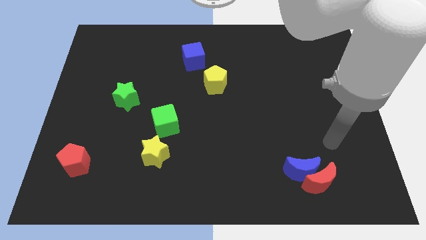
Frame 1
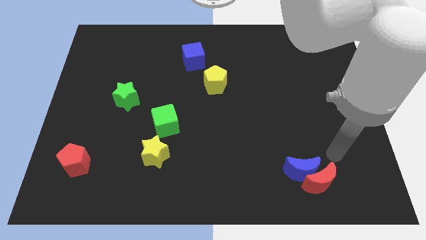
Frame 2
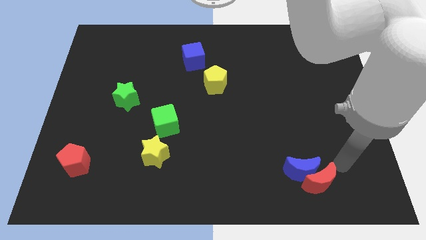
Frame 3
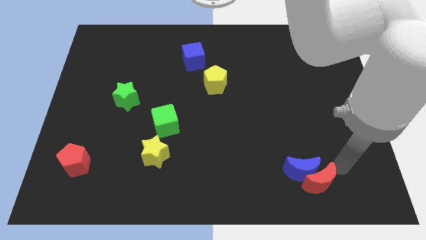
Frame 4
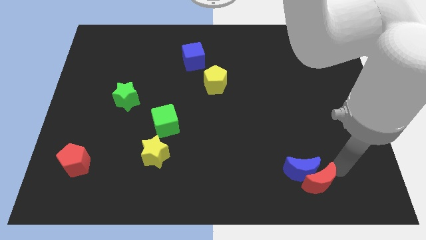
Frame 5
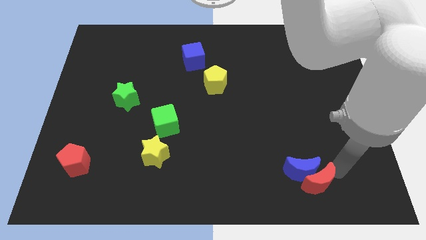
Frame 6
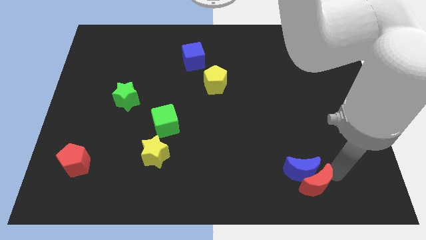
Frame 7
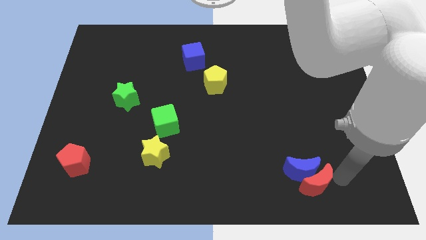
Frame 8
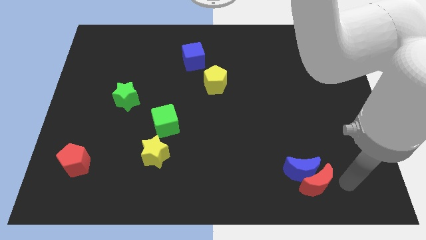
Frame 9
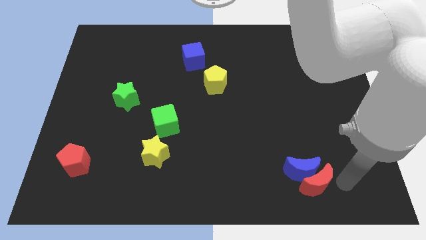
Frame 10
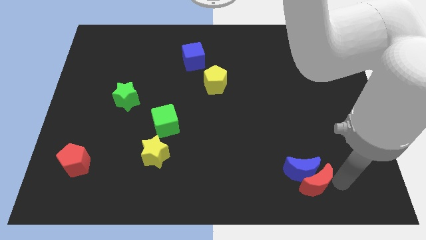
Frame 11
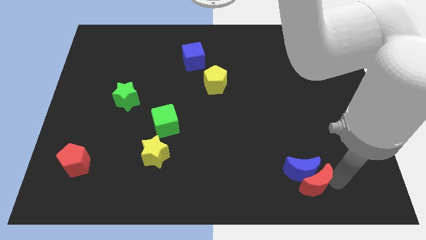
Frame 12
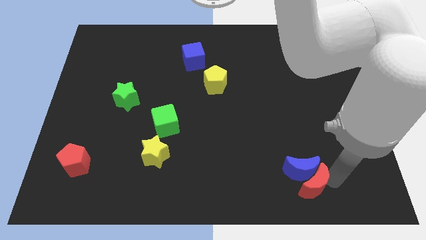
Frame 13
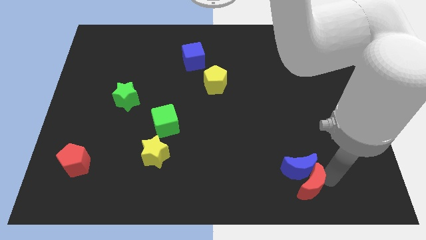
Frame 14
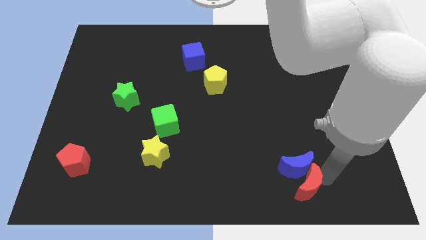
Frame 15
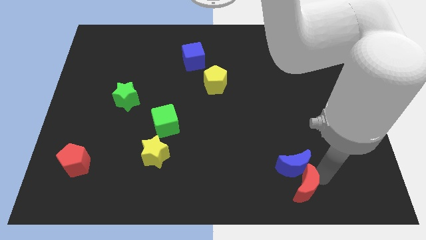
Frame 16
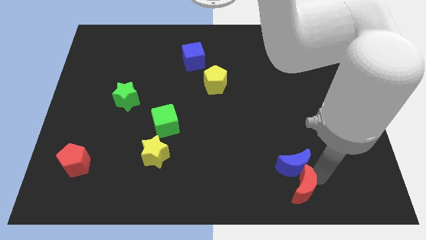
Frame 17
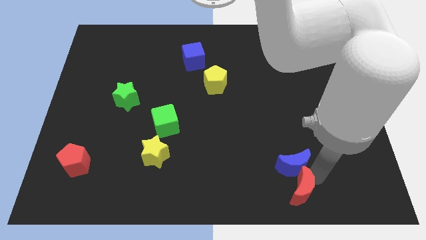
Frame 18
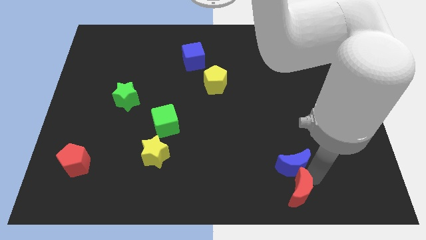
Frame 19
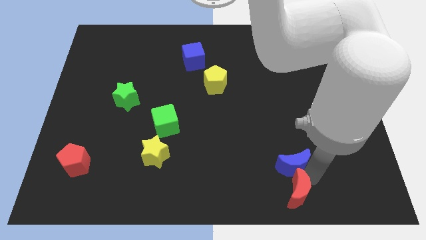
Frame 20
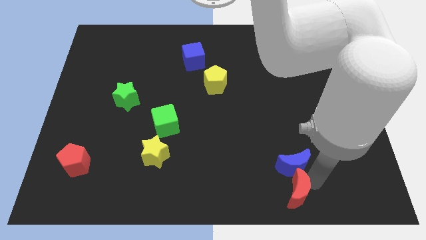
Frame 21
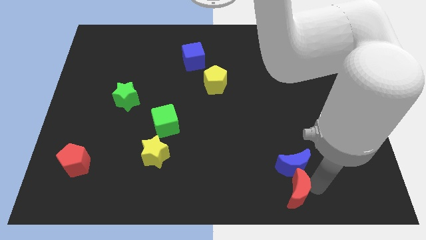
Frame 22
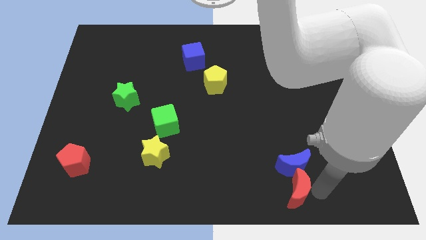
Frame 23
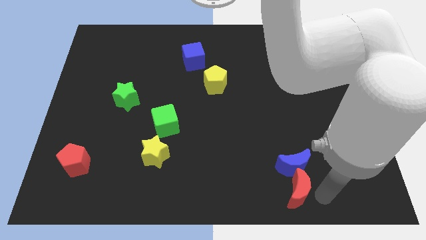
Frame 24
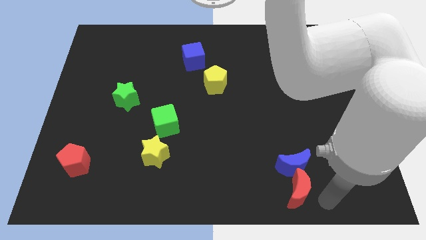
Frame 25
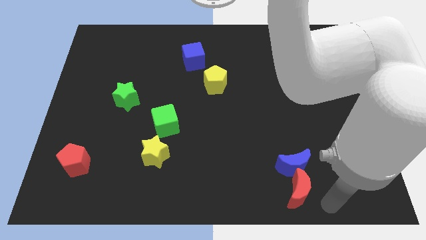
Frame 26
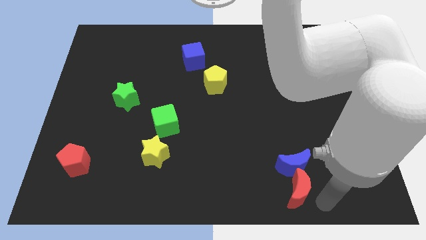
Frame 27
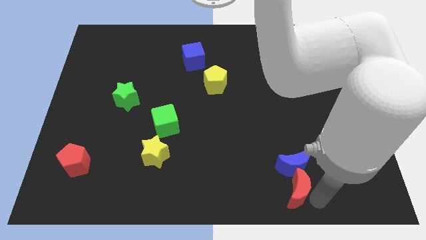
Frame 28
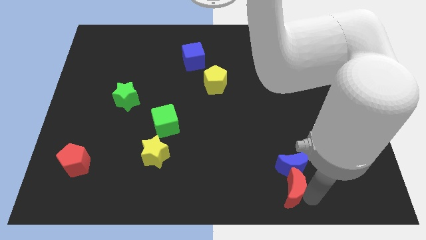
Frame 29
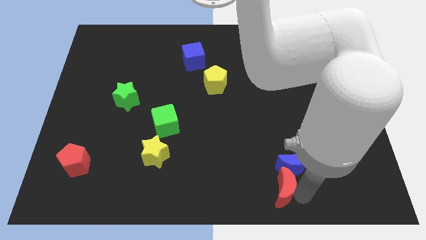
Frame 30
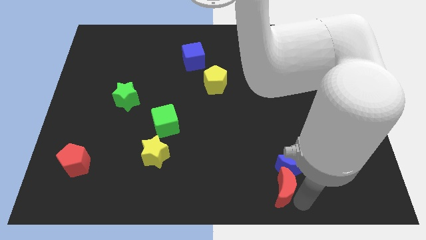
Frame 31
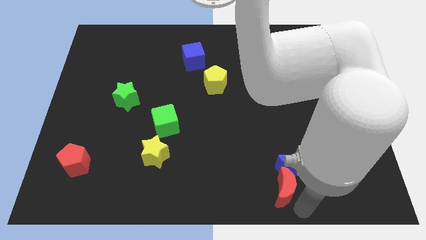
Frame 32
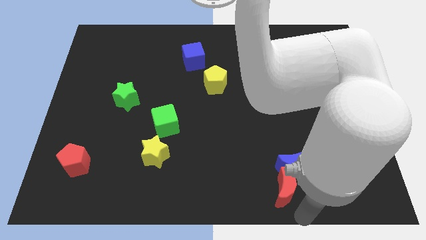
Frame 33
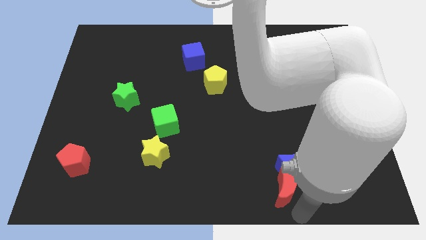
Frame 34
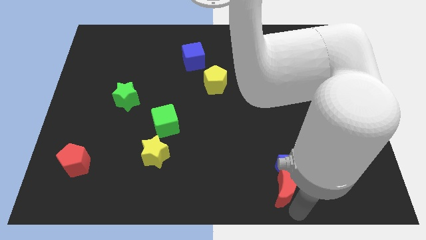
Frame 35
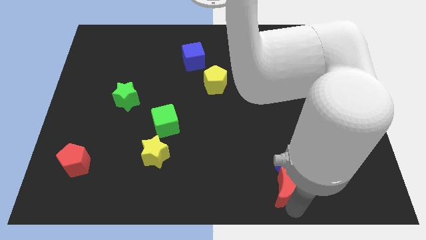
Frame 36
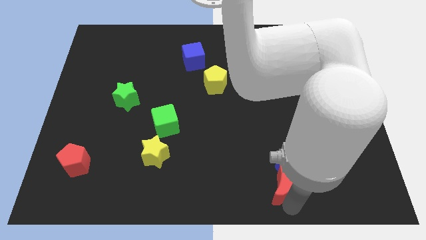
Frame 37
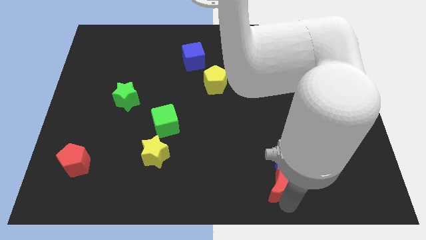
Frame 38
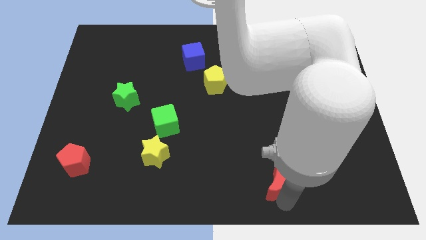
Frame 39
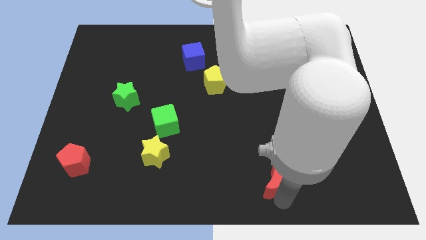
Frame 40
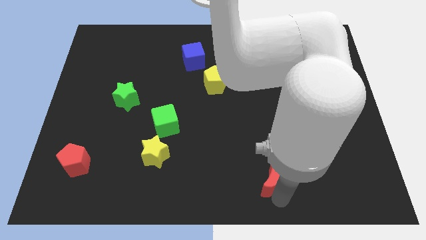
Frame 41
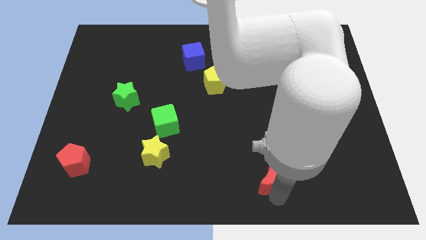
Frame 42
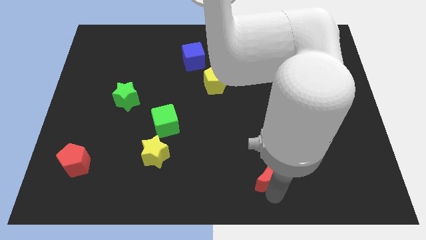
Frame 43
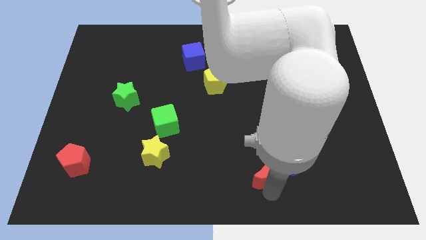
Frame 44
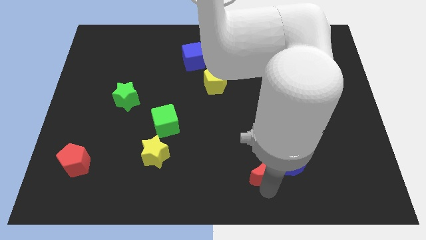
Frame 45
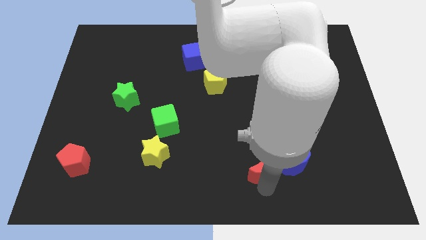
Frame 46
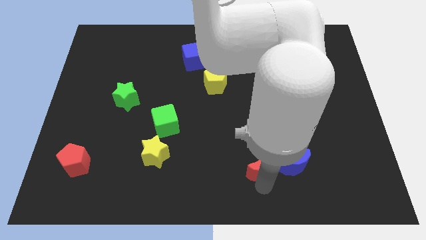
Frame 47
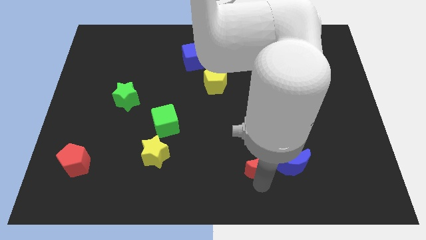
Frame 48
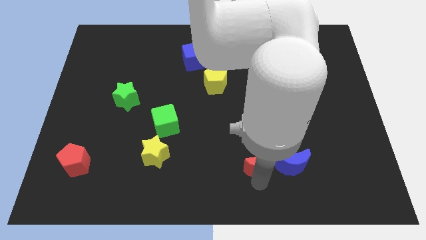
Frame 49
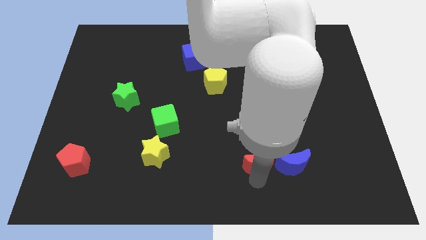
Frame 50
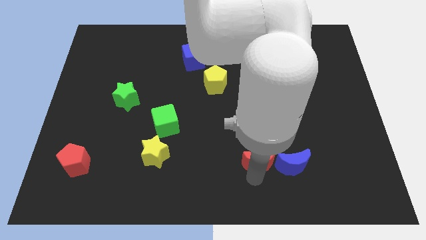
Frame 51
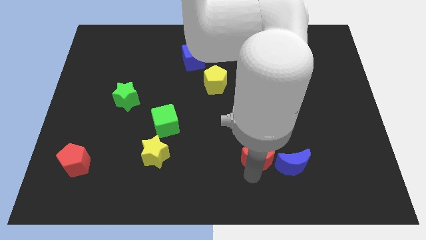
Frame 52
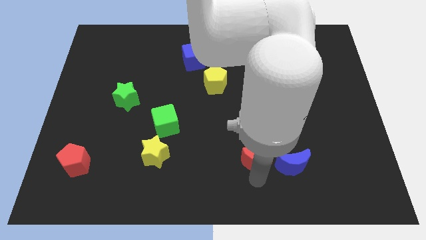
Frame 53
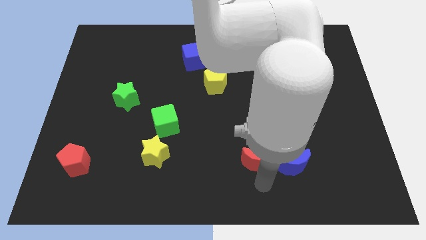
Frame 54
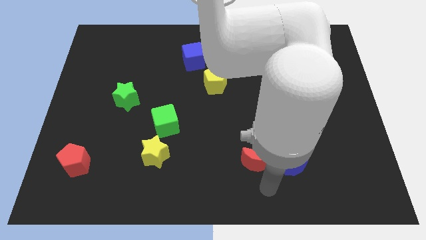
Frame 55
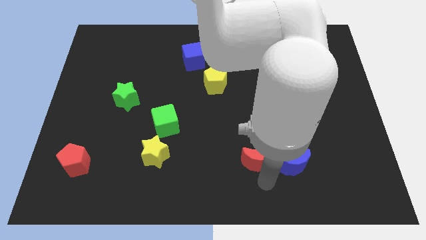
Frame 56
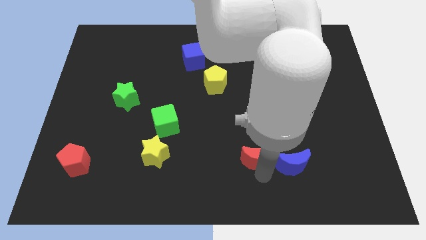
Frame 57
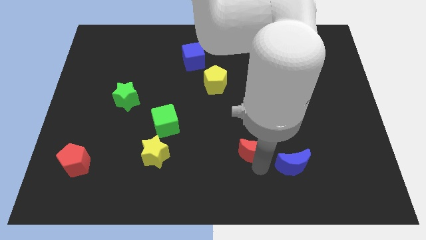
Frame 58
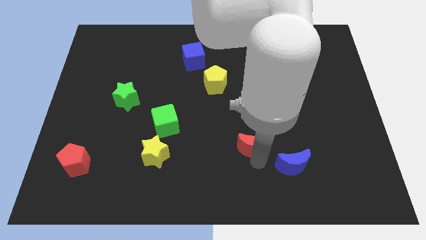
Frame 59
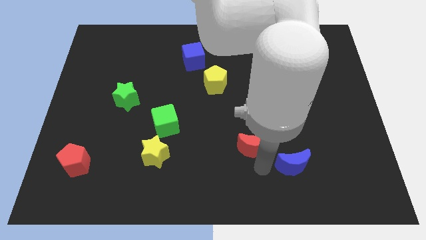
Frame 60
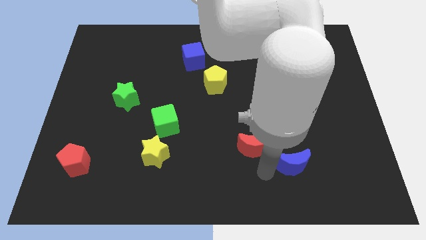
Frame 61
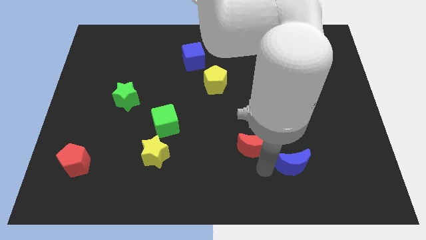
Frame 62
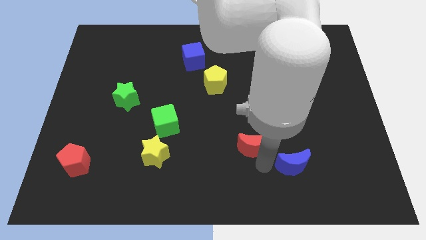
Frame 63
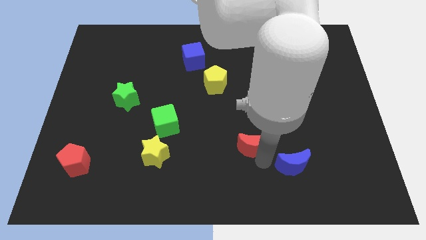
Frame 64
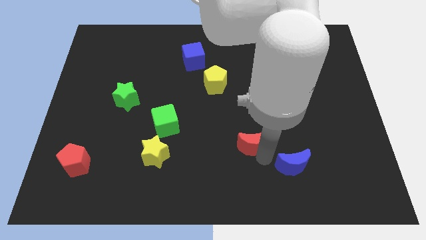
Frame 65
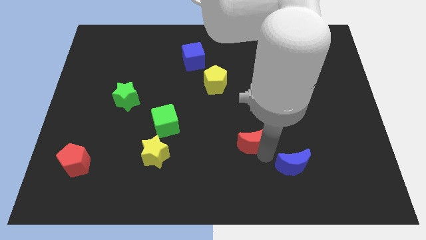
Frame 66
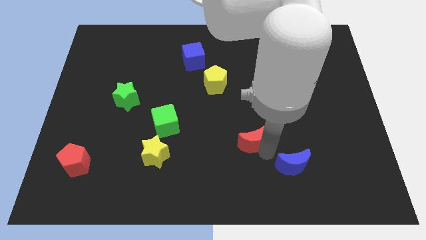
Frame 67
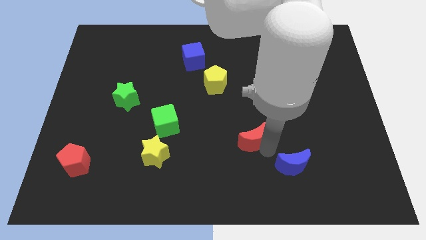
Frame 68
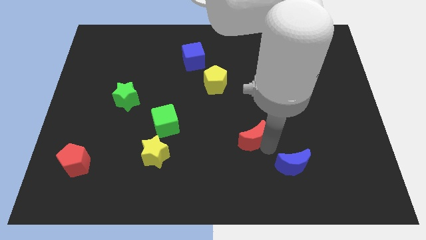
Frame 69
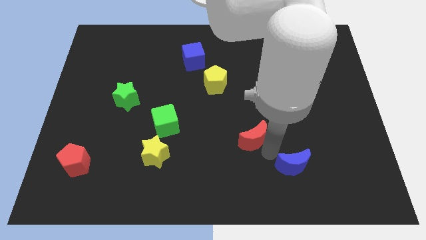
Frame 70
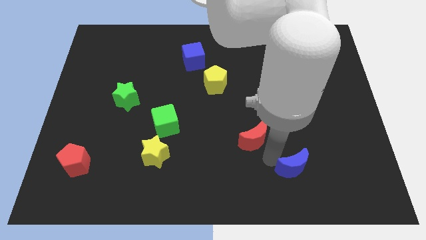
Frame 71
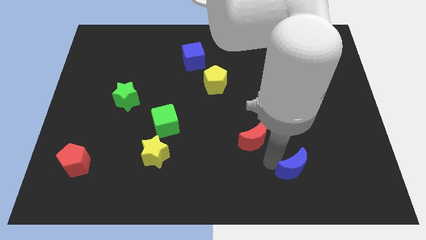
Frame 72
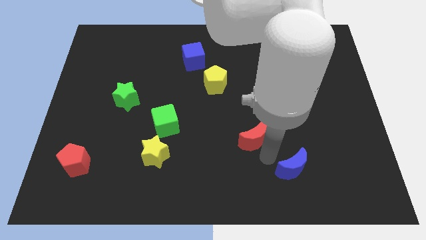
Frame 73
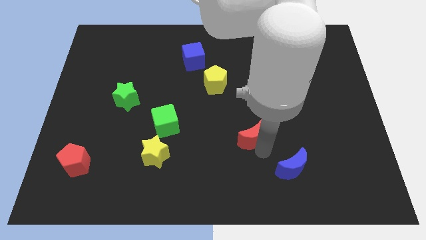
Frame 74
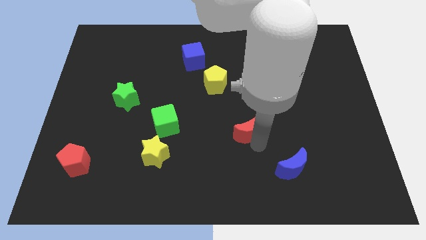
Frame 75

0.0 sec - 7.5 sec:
put the red moon to the middle
